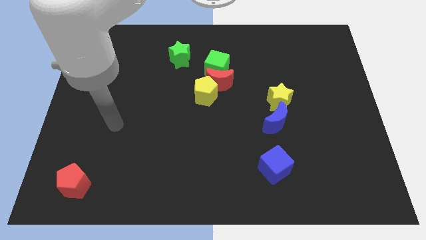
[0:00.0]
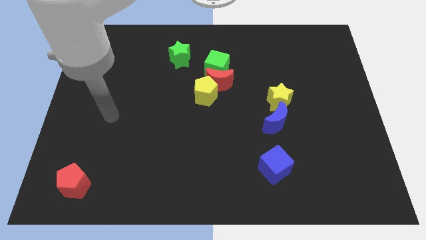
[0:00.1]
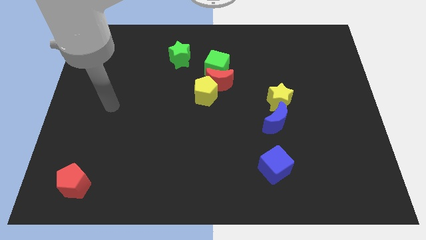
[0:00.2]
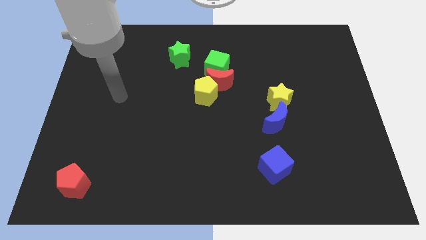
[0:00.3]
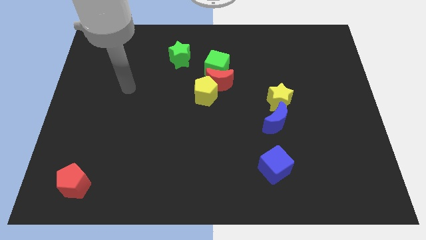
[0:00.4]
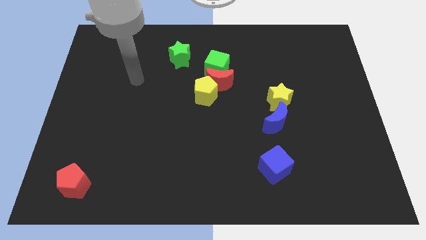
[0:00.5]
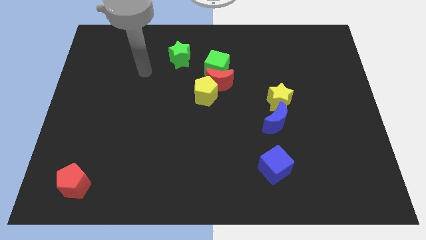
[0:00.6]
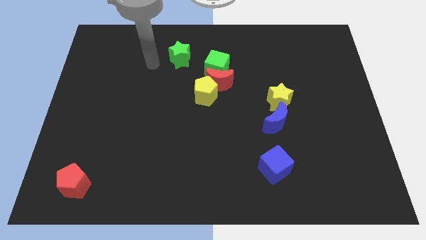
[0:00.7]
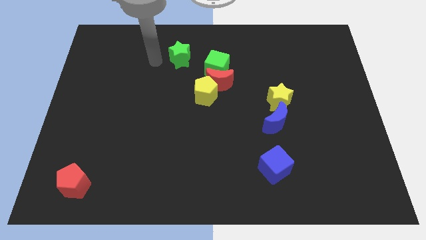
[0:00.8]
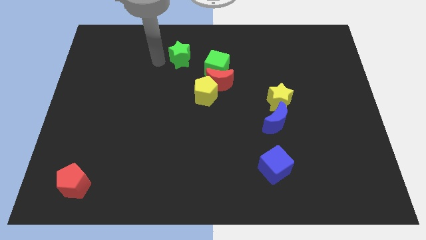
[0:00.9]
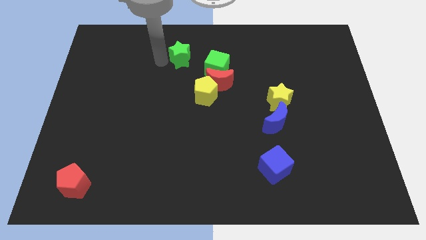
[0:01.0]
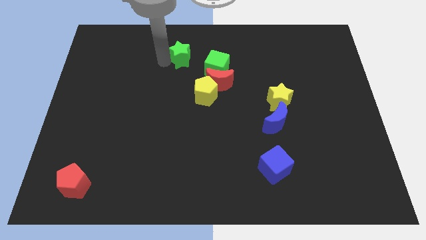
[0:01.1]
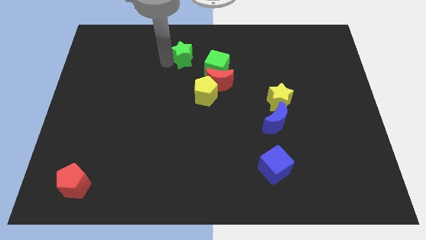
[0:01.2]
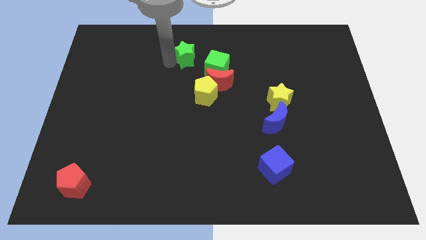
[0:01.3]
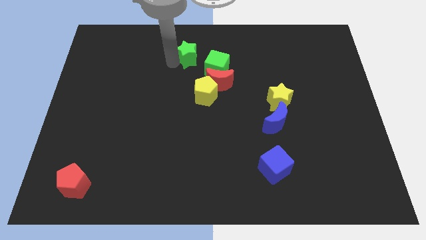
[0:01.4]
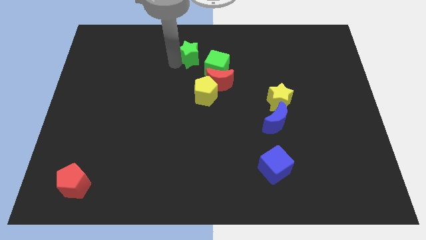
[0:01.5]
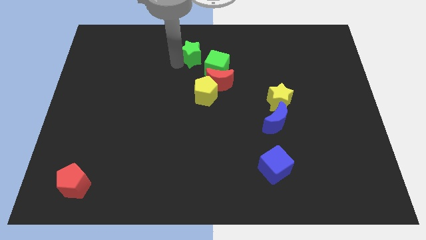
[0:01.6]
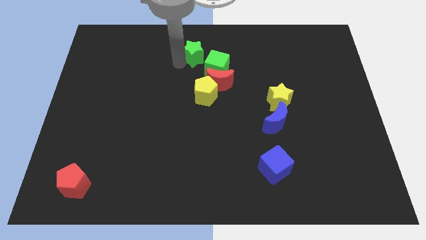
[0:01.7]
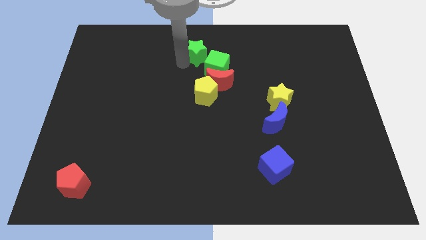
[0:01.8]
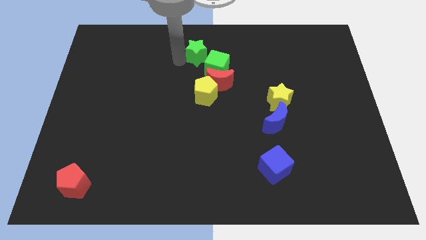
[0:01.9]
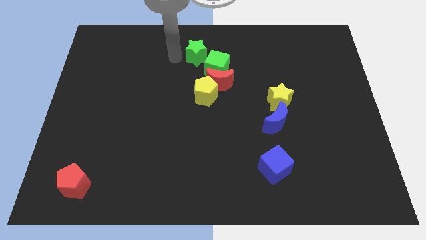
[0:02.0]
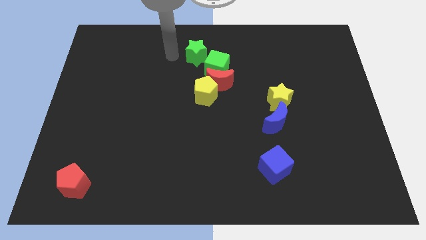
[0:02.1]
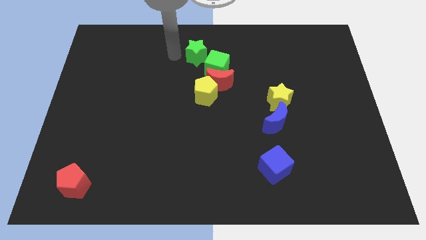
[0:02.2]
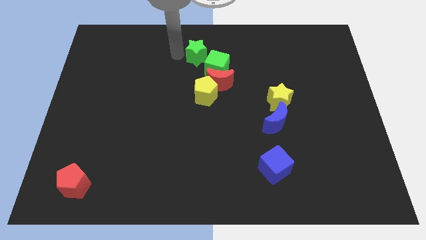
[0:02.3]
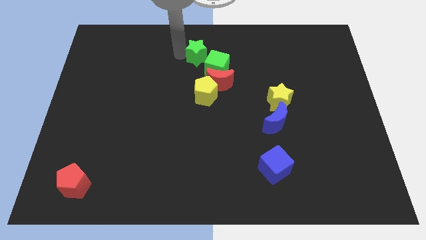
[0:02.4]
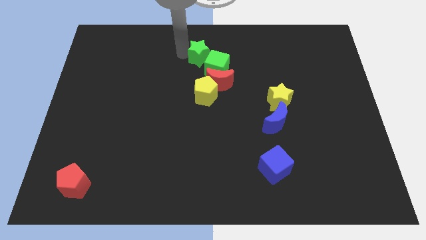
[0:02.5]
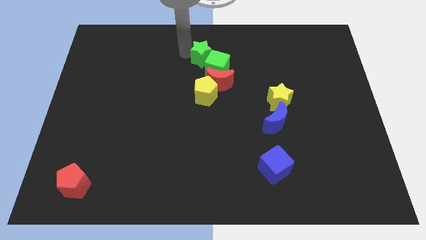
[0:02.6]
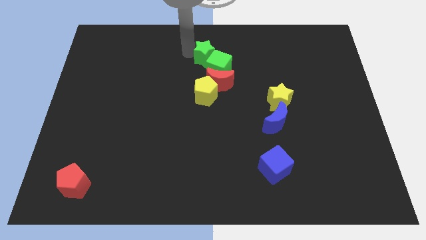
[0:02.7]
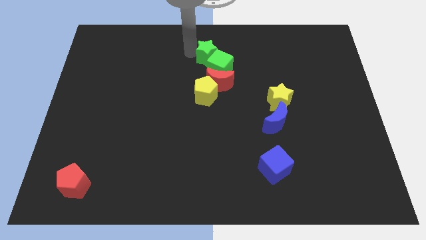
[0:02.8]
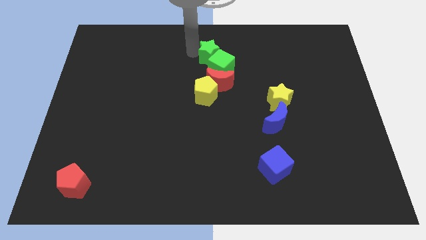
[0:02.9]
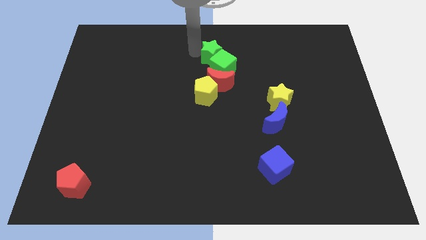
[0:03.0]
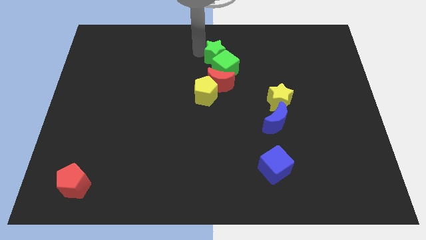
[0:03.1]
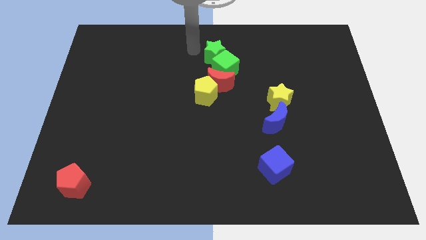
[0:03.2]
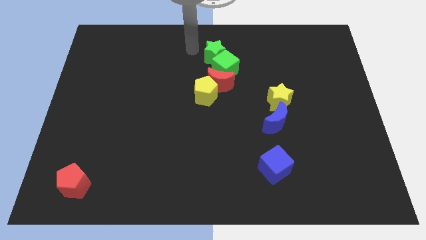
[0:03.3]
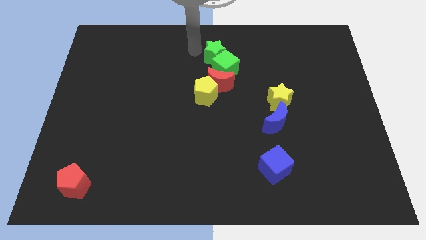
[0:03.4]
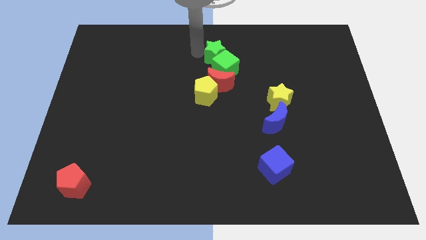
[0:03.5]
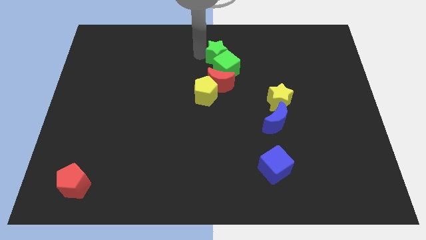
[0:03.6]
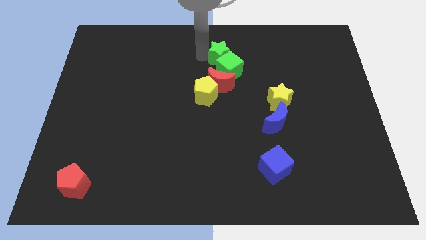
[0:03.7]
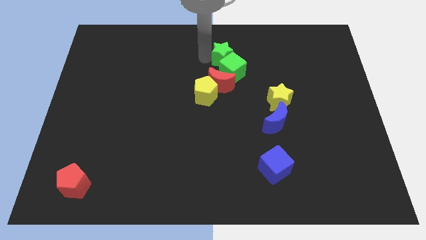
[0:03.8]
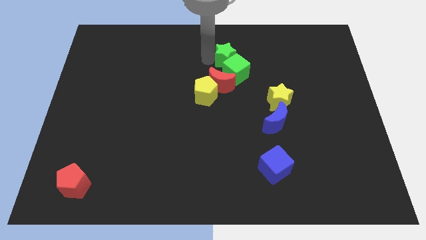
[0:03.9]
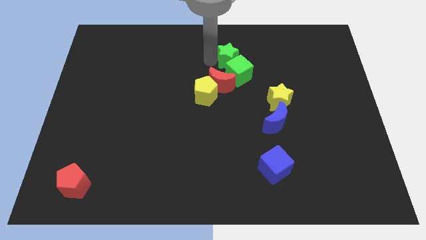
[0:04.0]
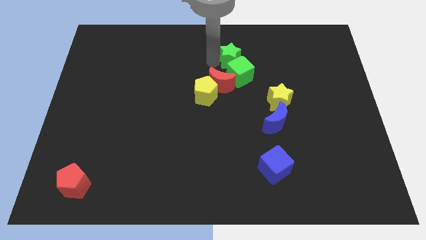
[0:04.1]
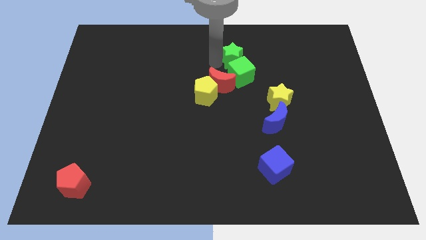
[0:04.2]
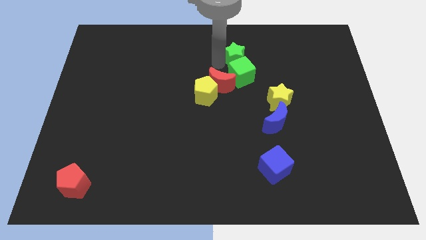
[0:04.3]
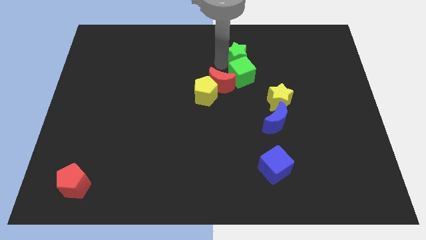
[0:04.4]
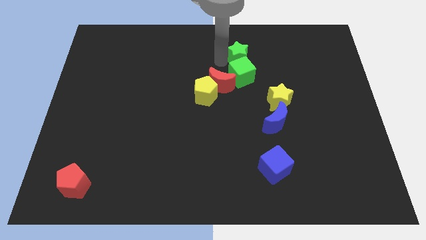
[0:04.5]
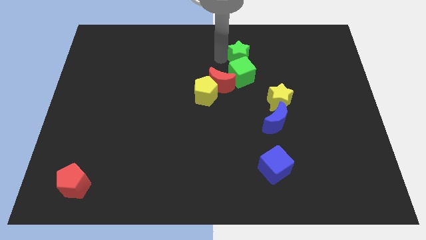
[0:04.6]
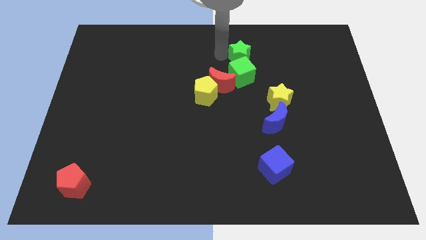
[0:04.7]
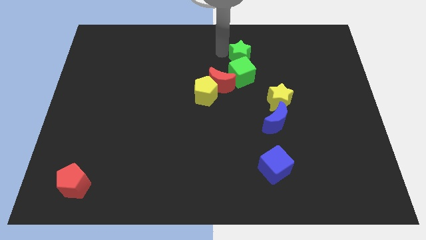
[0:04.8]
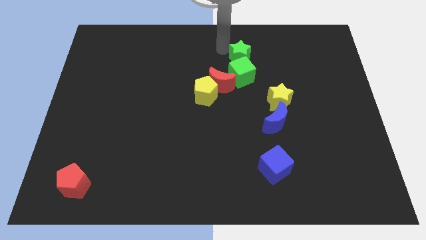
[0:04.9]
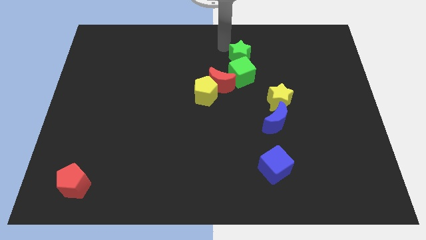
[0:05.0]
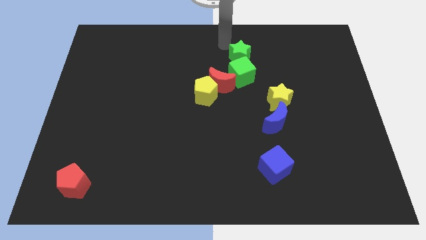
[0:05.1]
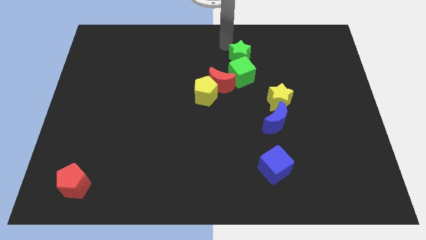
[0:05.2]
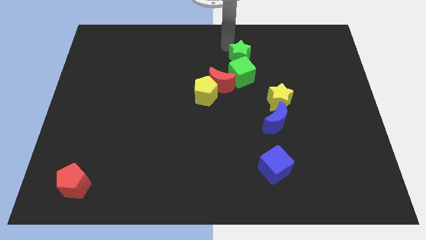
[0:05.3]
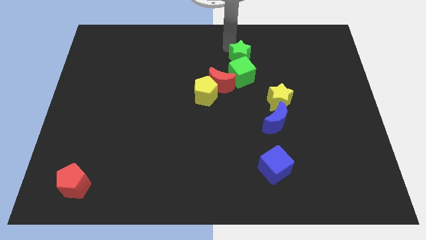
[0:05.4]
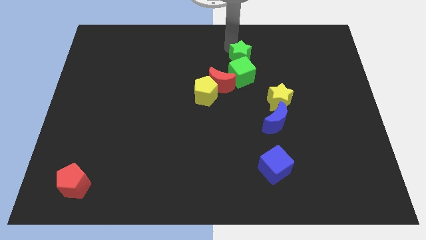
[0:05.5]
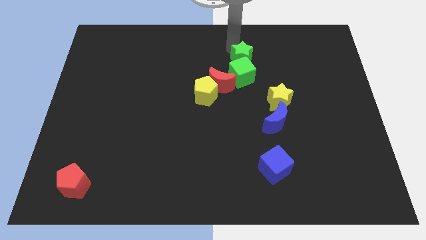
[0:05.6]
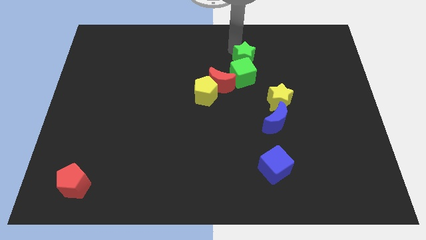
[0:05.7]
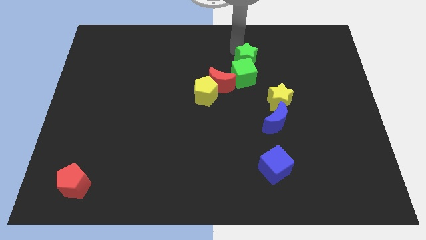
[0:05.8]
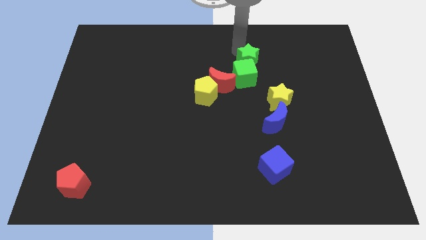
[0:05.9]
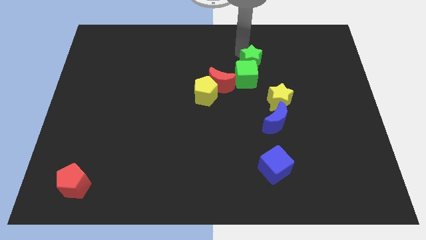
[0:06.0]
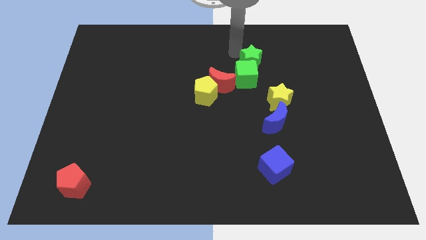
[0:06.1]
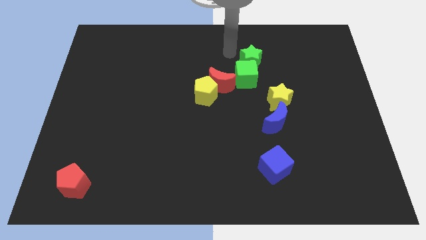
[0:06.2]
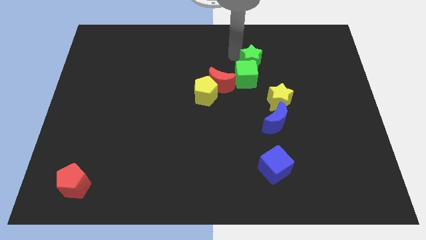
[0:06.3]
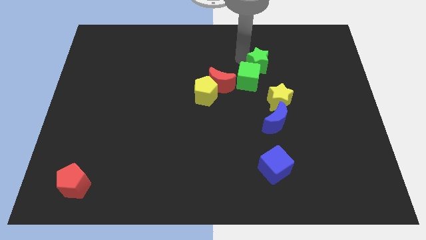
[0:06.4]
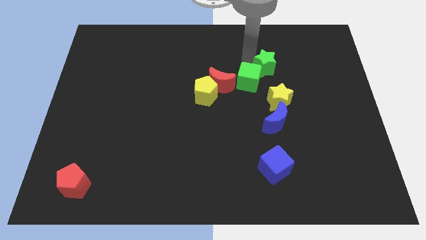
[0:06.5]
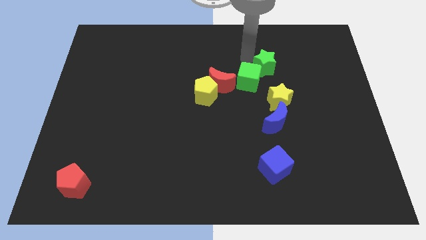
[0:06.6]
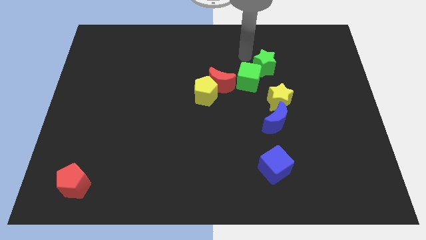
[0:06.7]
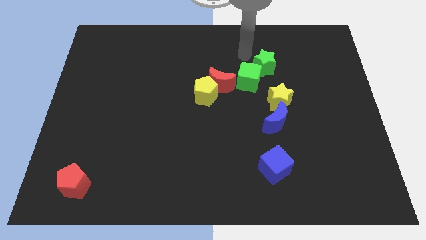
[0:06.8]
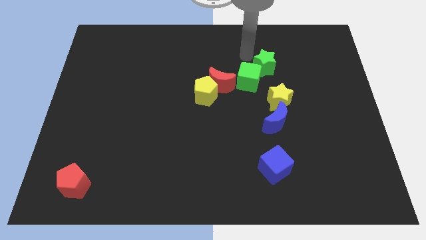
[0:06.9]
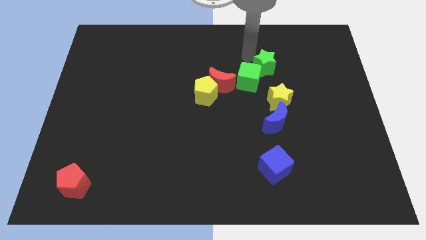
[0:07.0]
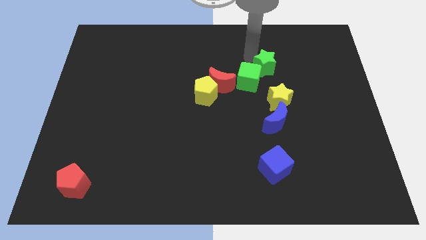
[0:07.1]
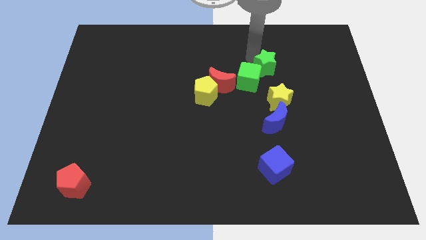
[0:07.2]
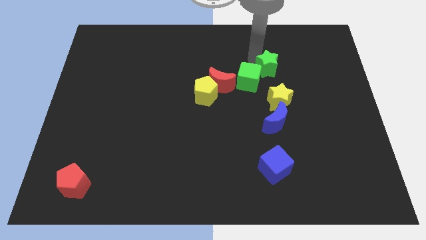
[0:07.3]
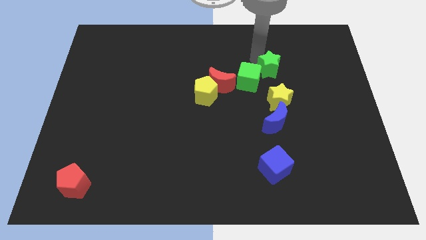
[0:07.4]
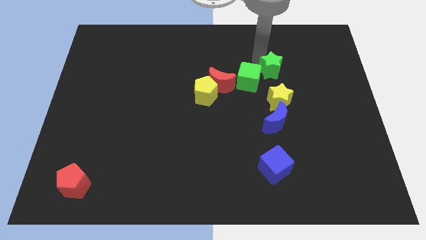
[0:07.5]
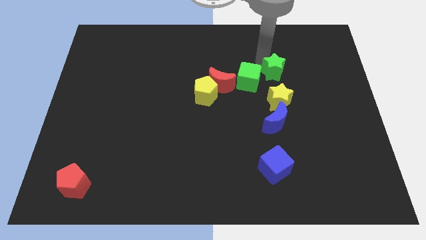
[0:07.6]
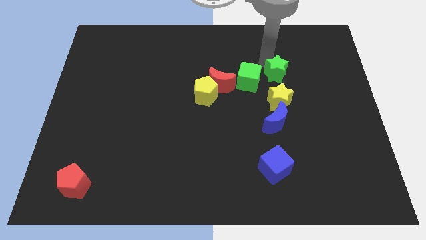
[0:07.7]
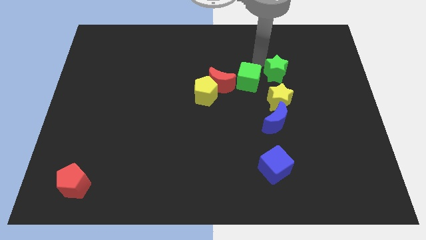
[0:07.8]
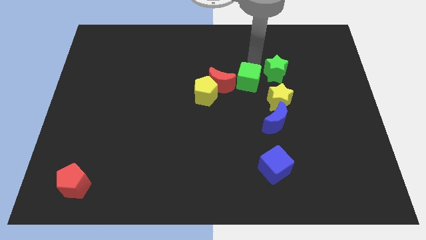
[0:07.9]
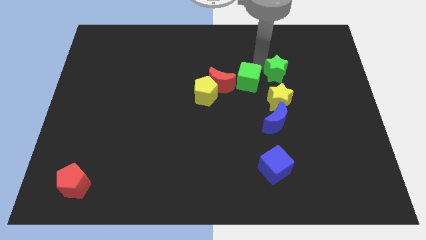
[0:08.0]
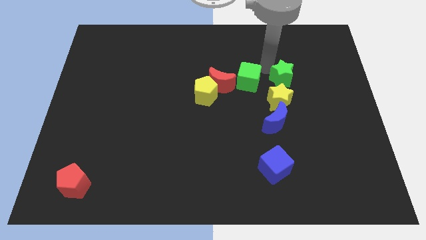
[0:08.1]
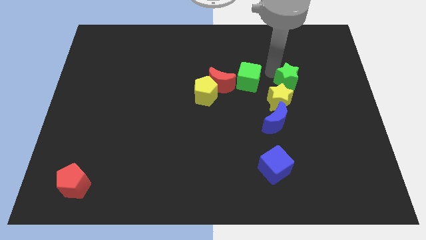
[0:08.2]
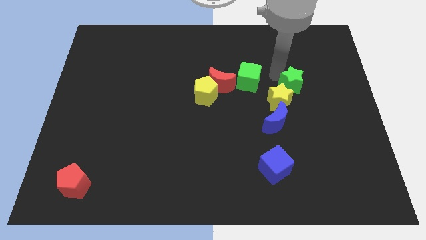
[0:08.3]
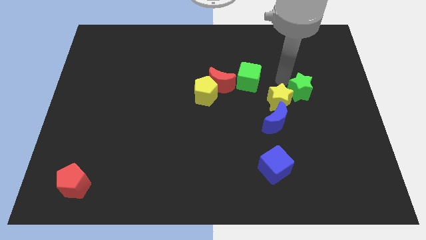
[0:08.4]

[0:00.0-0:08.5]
push the green star to the right of the yellow star
